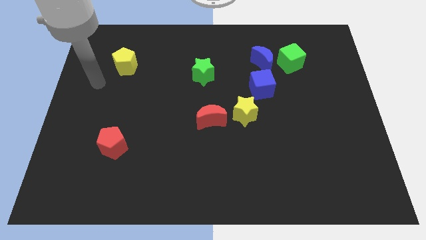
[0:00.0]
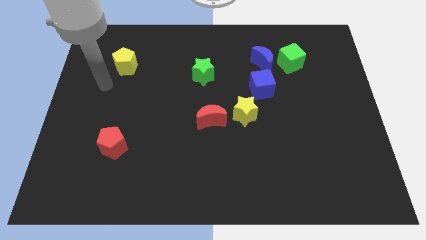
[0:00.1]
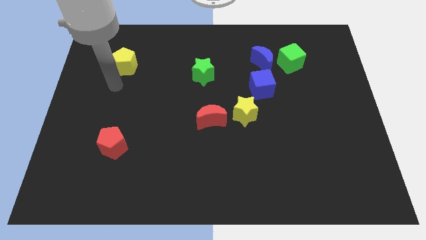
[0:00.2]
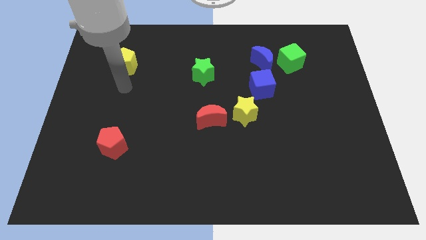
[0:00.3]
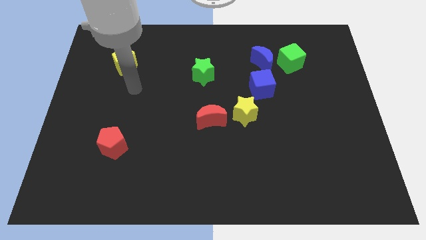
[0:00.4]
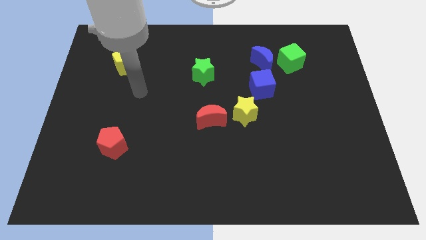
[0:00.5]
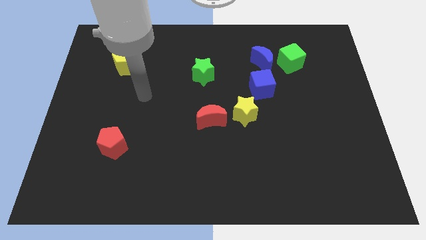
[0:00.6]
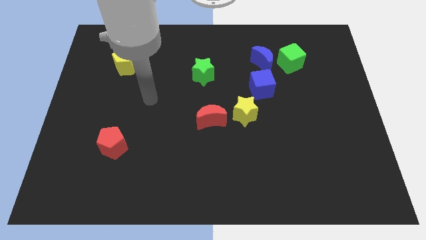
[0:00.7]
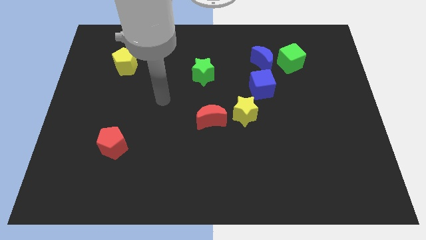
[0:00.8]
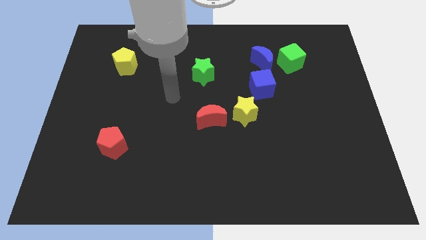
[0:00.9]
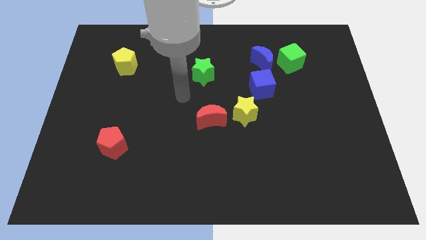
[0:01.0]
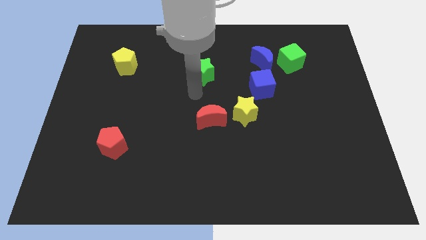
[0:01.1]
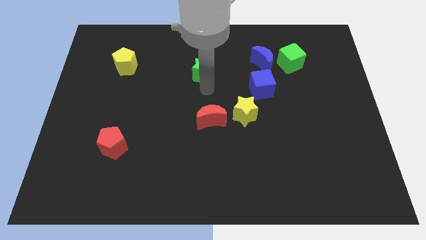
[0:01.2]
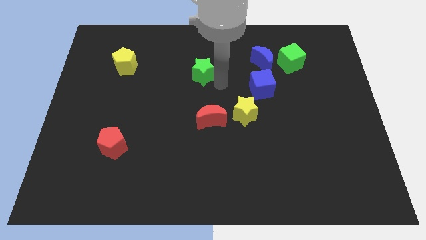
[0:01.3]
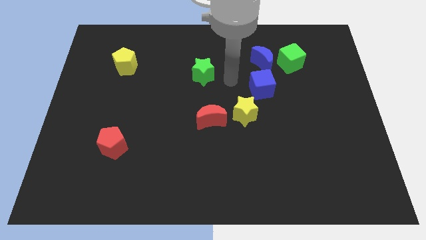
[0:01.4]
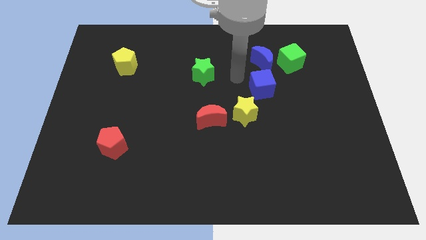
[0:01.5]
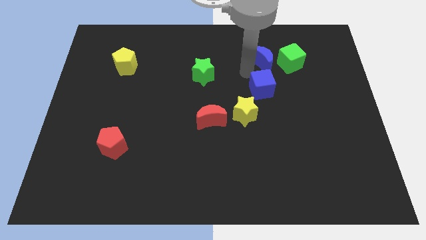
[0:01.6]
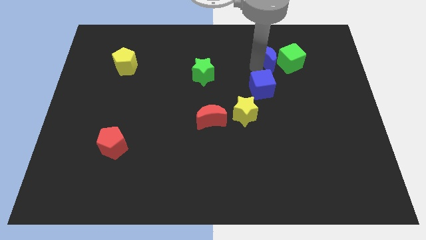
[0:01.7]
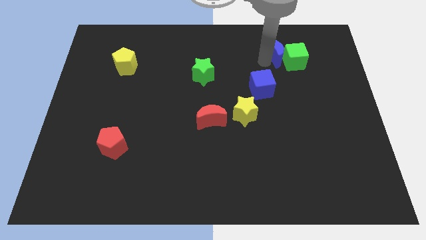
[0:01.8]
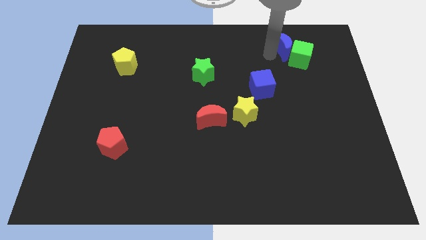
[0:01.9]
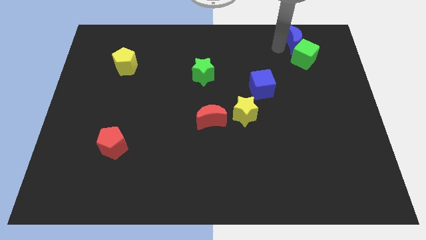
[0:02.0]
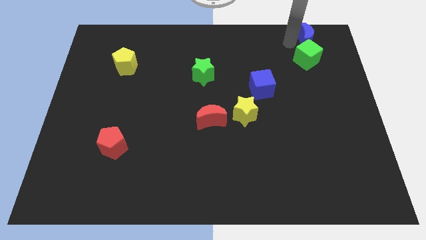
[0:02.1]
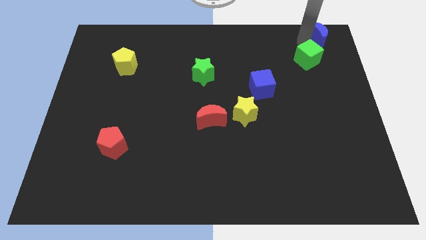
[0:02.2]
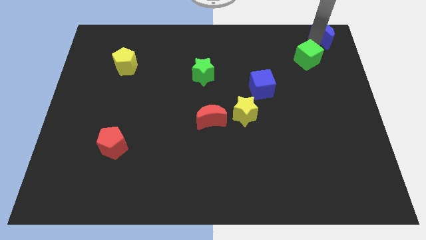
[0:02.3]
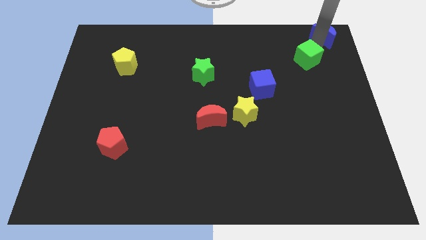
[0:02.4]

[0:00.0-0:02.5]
pull the green cube apart from the blue moon

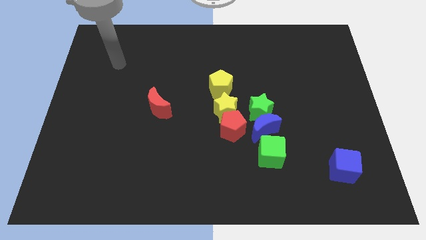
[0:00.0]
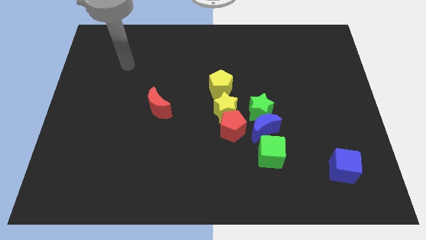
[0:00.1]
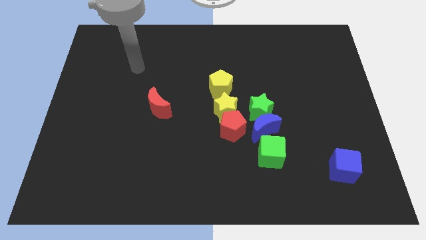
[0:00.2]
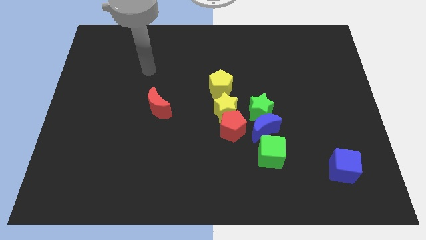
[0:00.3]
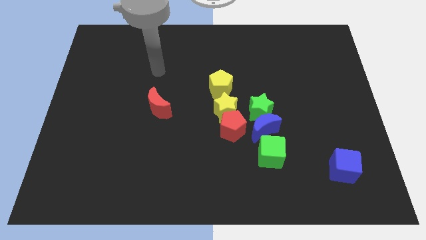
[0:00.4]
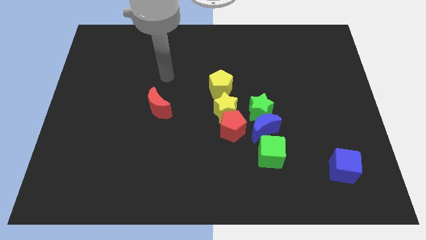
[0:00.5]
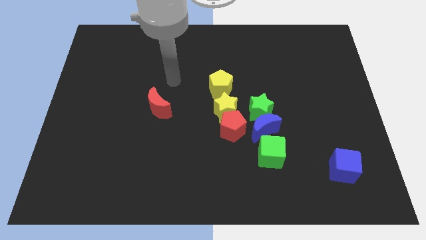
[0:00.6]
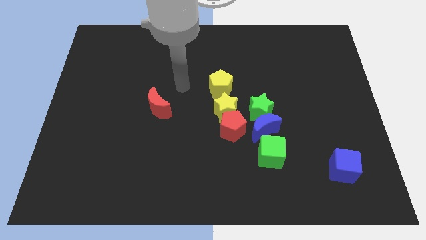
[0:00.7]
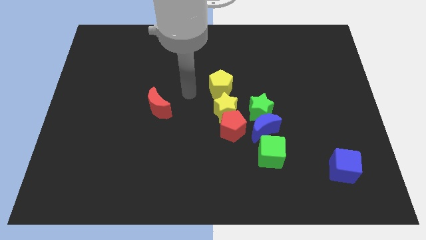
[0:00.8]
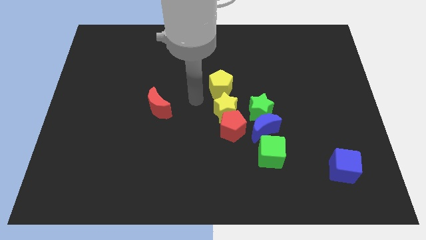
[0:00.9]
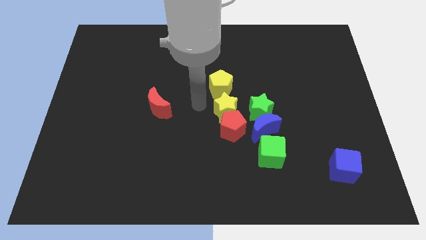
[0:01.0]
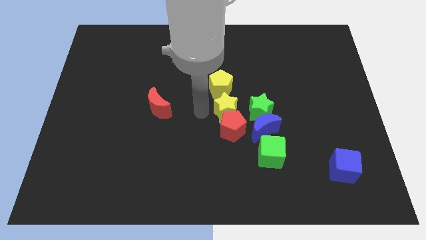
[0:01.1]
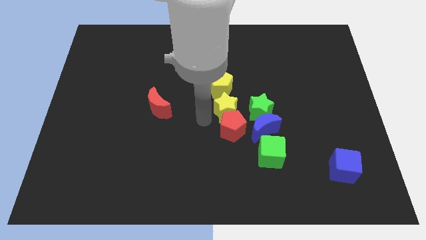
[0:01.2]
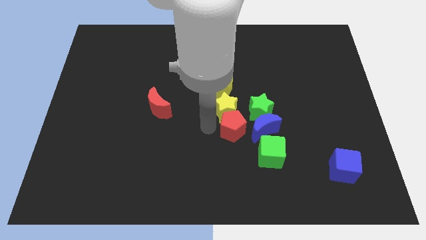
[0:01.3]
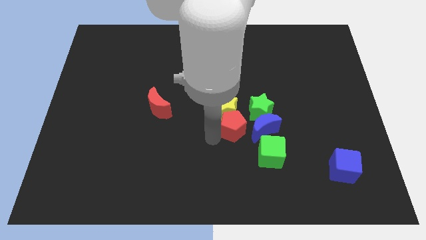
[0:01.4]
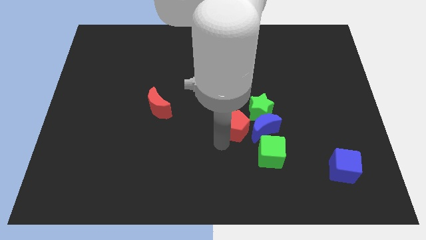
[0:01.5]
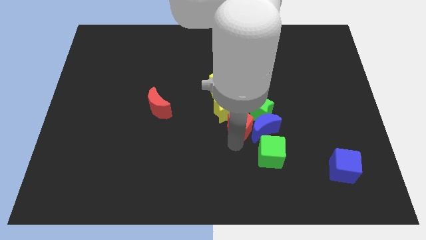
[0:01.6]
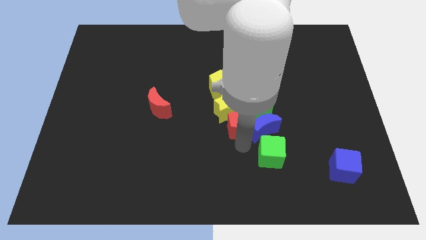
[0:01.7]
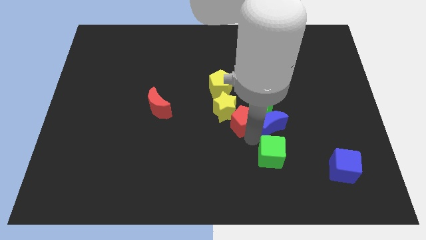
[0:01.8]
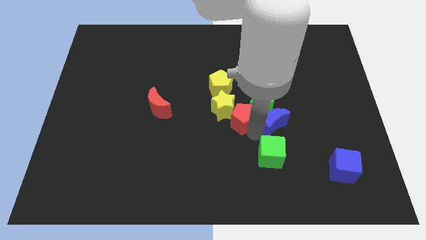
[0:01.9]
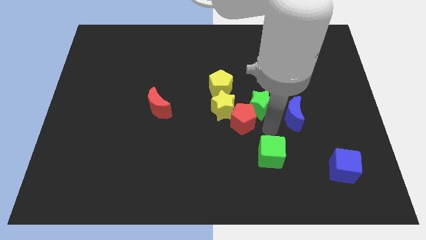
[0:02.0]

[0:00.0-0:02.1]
separate the green cube from the blue moon

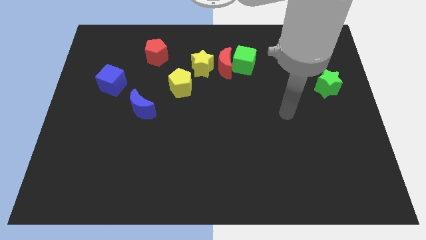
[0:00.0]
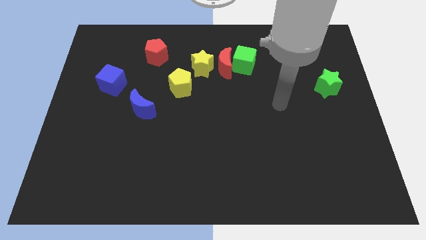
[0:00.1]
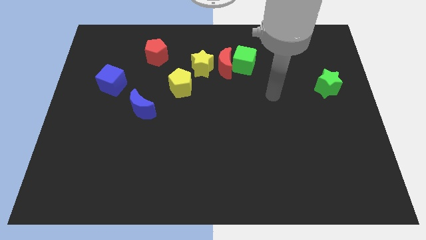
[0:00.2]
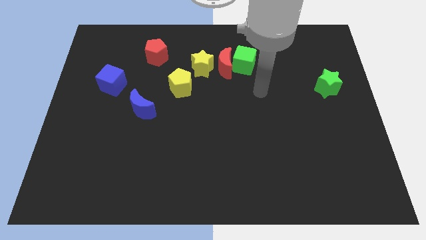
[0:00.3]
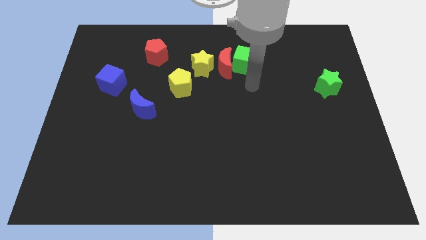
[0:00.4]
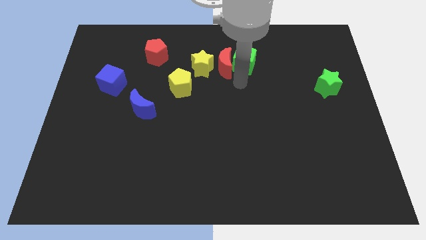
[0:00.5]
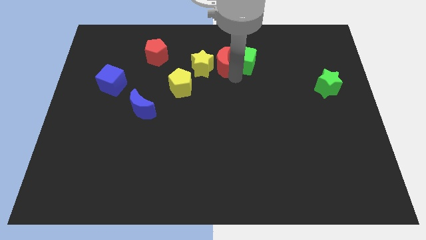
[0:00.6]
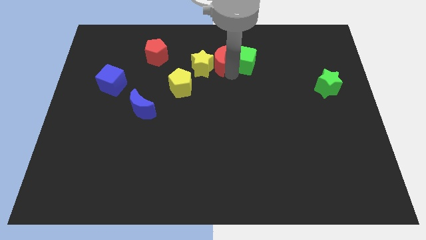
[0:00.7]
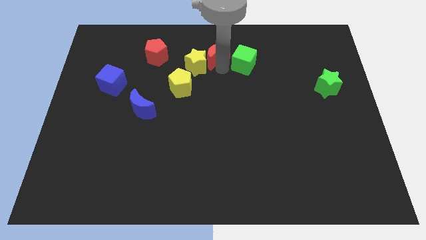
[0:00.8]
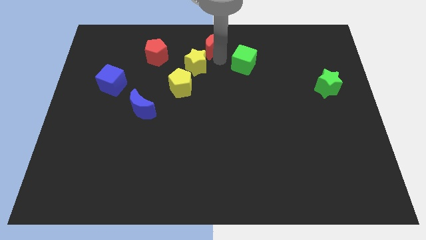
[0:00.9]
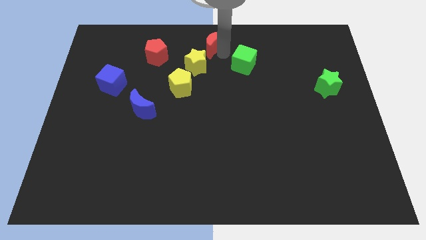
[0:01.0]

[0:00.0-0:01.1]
pull the green cube apart from the red moon

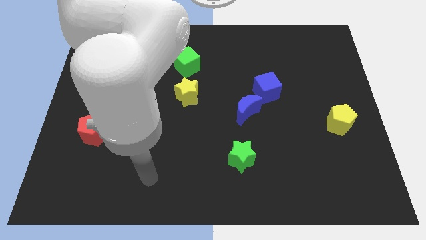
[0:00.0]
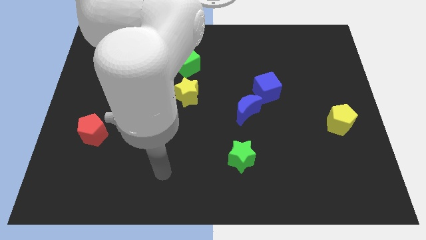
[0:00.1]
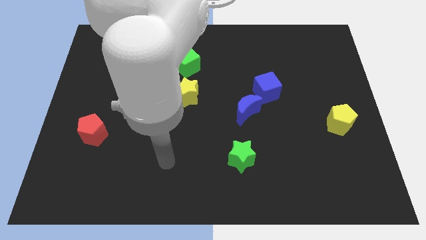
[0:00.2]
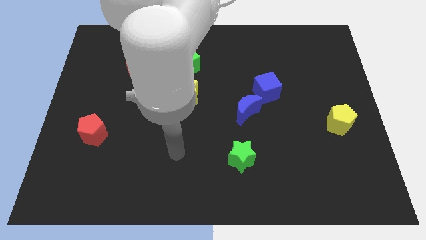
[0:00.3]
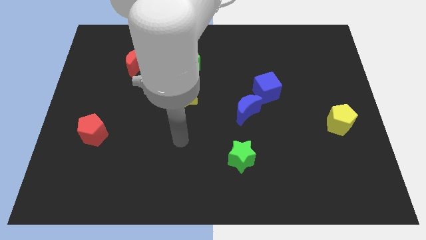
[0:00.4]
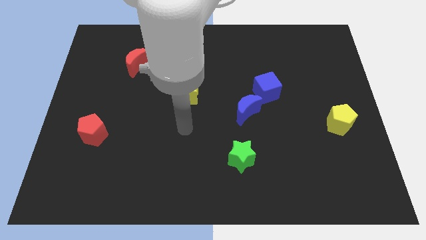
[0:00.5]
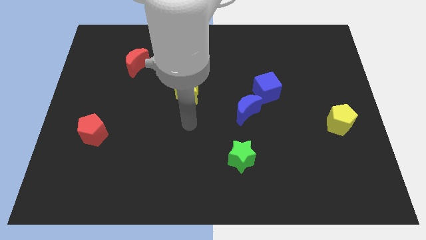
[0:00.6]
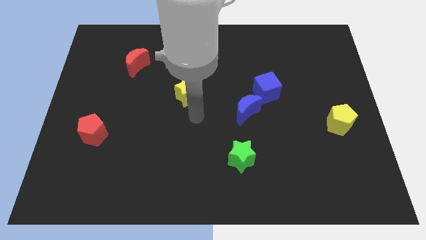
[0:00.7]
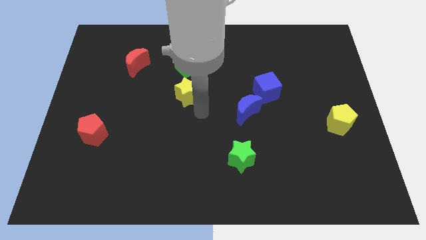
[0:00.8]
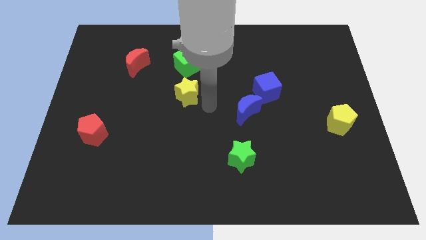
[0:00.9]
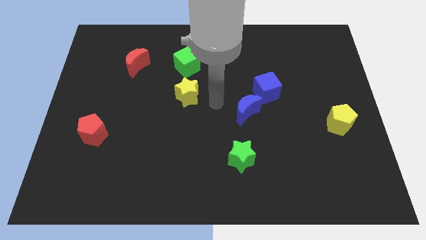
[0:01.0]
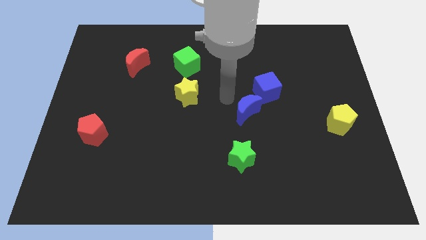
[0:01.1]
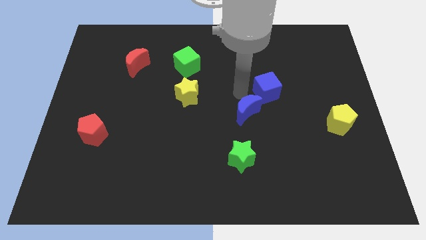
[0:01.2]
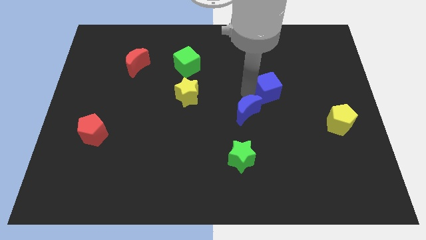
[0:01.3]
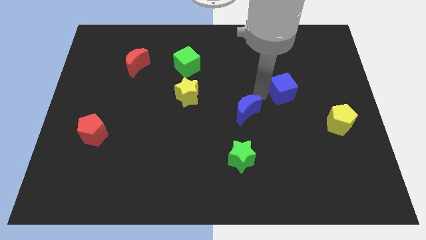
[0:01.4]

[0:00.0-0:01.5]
separate the blue moon from the blue cube

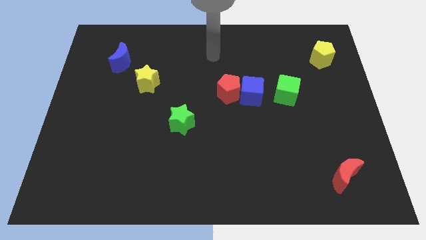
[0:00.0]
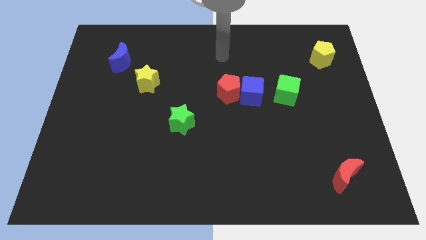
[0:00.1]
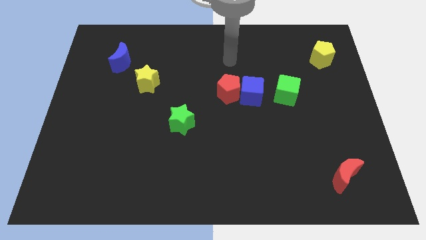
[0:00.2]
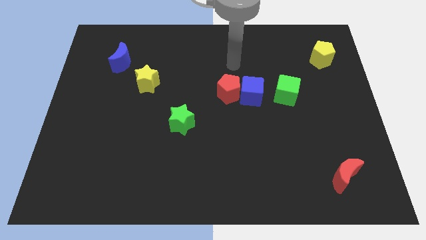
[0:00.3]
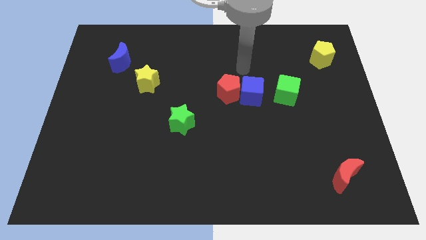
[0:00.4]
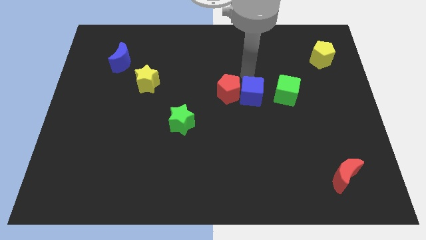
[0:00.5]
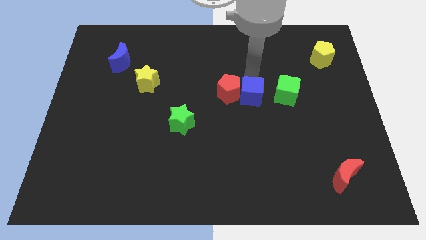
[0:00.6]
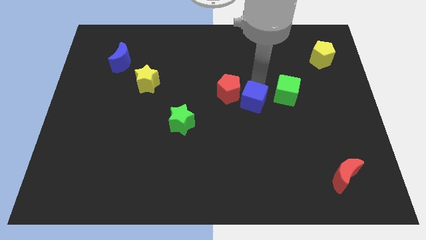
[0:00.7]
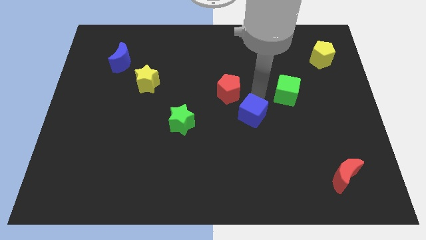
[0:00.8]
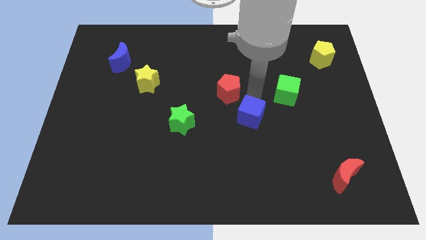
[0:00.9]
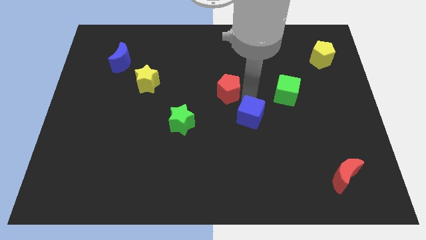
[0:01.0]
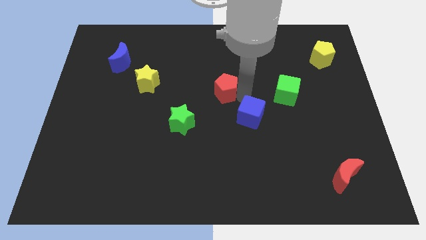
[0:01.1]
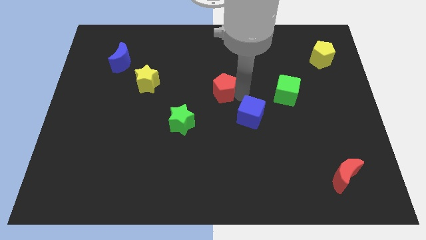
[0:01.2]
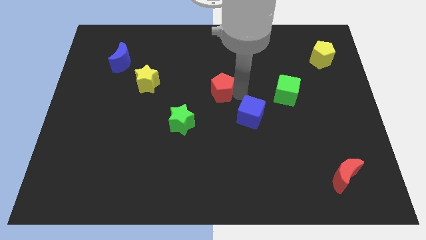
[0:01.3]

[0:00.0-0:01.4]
pull the red pentagon apart from the blue cube

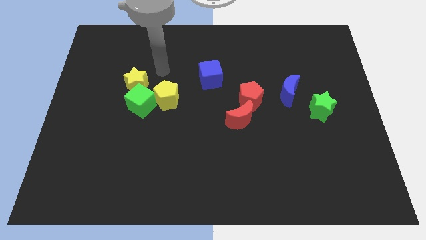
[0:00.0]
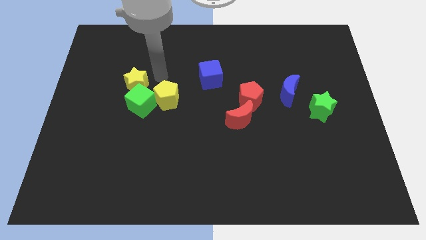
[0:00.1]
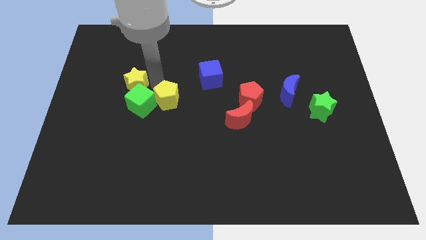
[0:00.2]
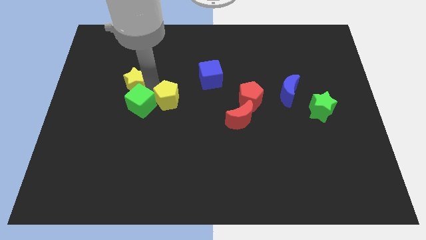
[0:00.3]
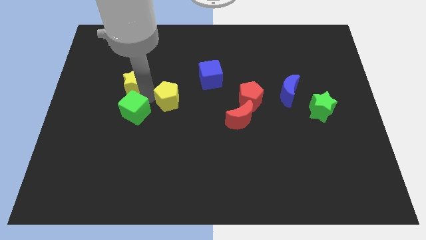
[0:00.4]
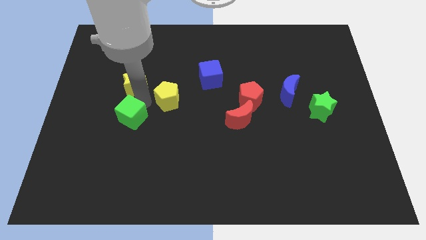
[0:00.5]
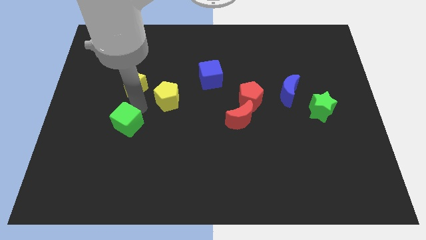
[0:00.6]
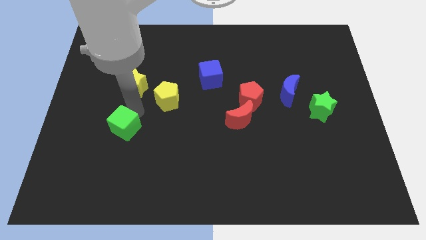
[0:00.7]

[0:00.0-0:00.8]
move the green cube away from the yellow pentagon and yellow star
